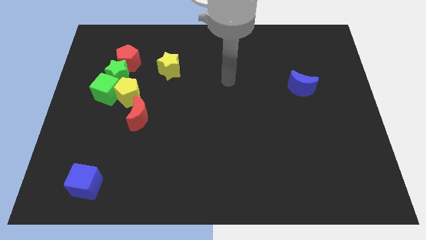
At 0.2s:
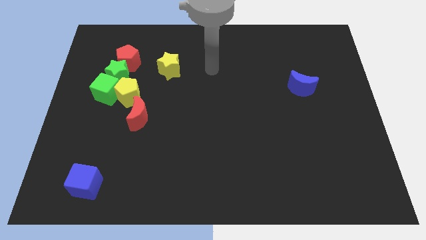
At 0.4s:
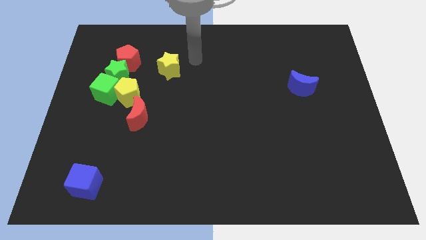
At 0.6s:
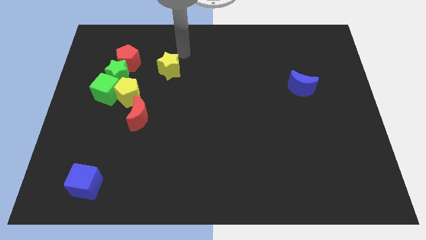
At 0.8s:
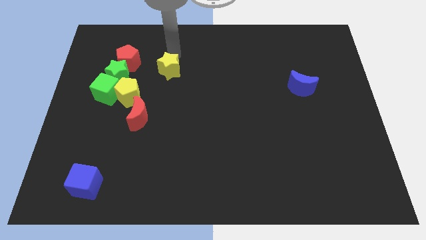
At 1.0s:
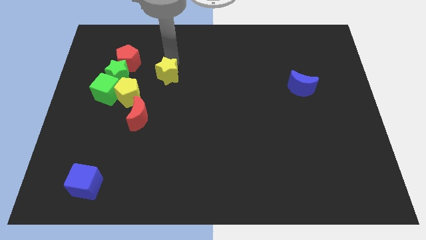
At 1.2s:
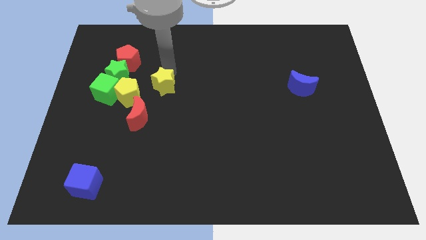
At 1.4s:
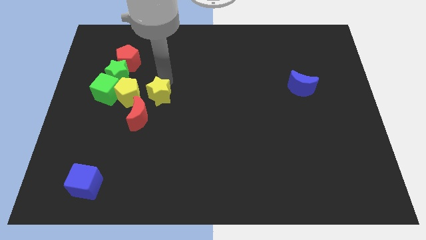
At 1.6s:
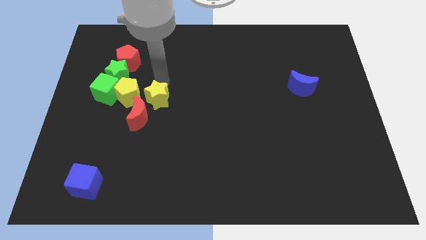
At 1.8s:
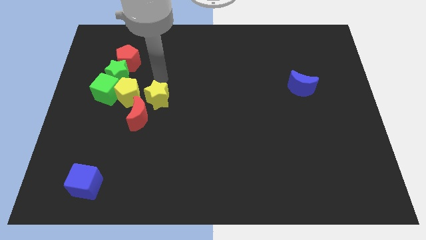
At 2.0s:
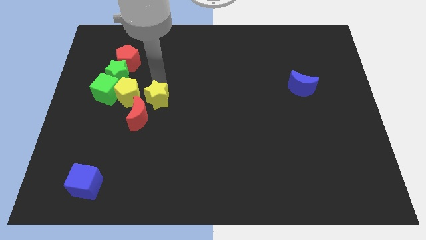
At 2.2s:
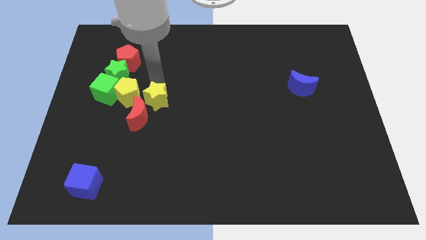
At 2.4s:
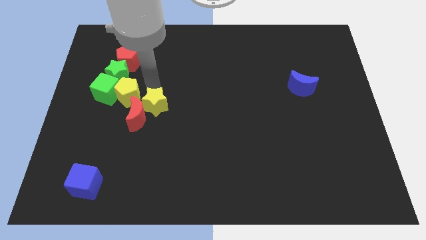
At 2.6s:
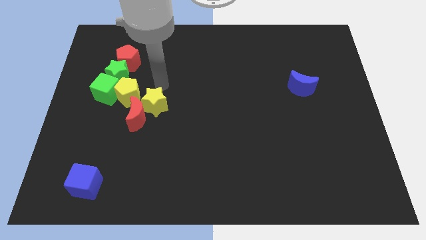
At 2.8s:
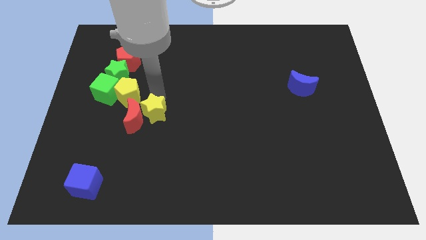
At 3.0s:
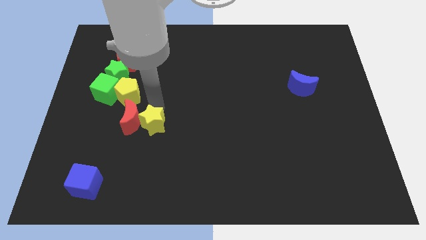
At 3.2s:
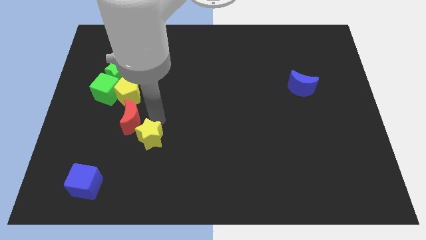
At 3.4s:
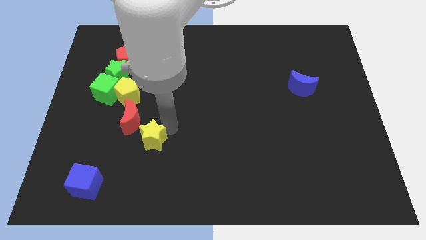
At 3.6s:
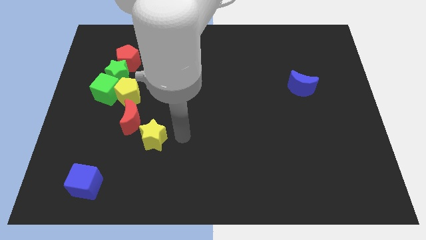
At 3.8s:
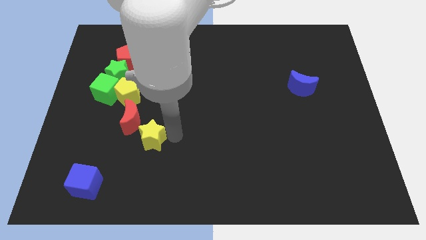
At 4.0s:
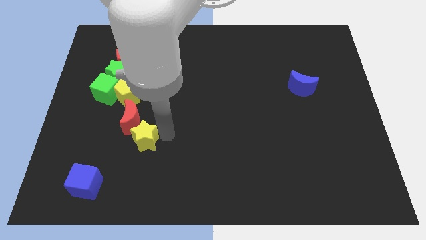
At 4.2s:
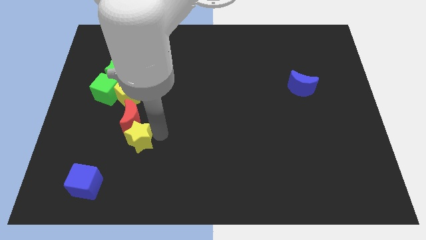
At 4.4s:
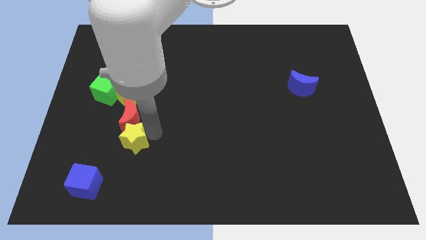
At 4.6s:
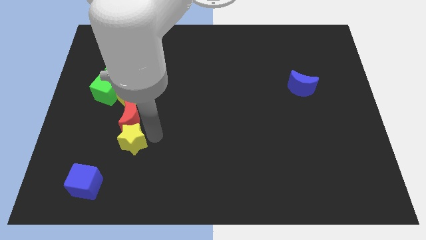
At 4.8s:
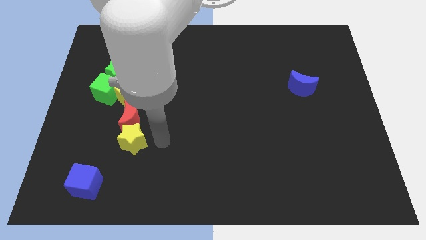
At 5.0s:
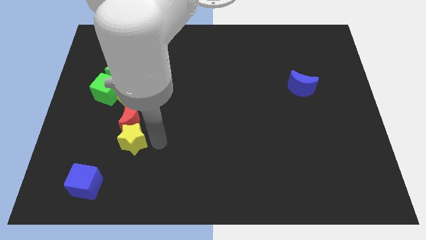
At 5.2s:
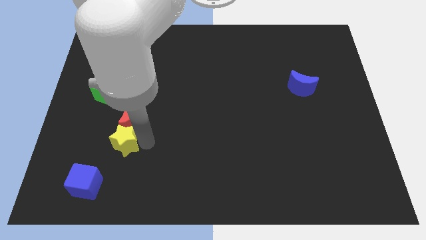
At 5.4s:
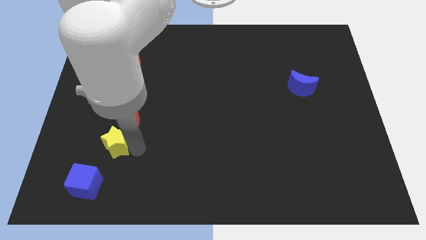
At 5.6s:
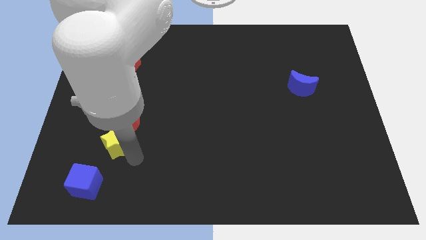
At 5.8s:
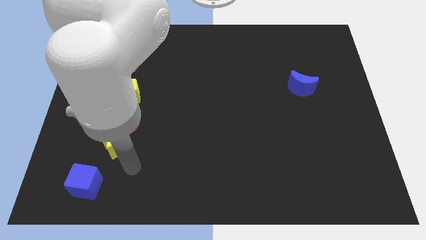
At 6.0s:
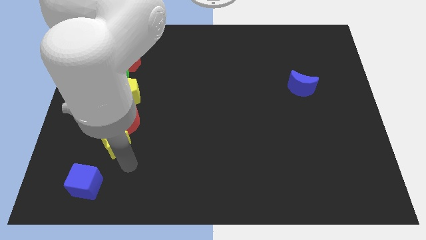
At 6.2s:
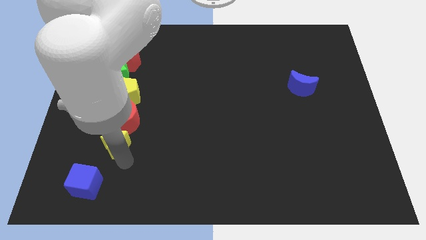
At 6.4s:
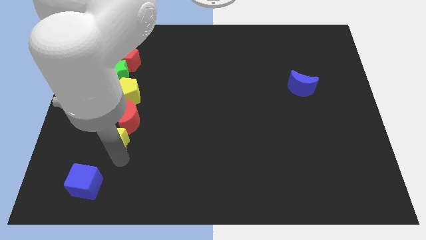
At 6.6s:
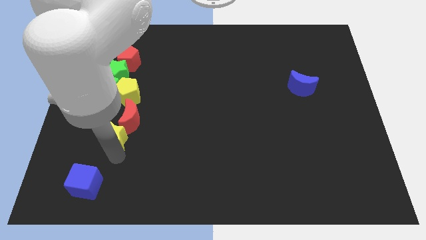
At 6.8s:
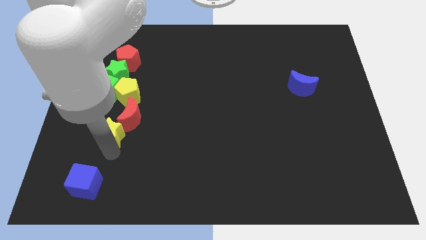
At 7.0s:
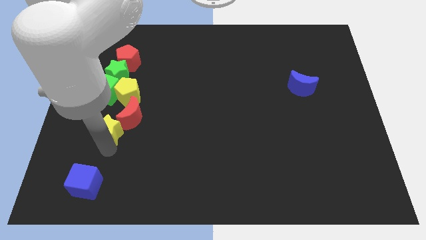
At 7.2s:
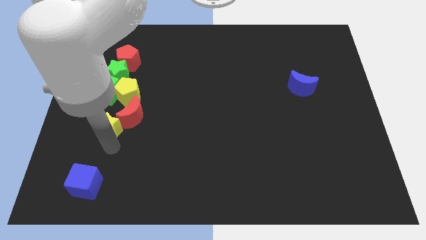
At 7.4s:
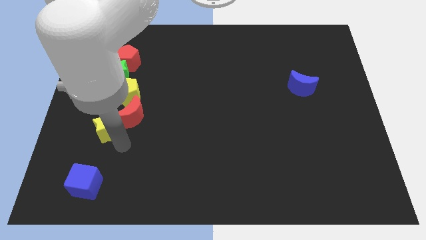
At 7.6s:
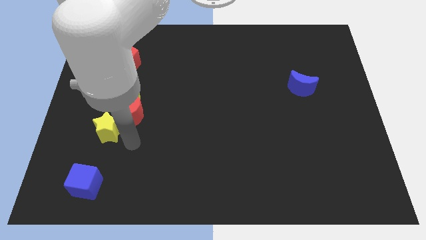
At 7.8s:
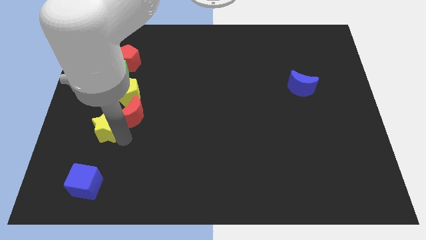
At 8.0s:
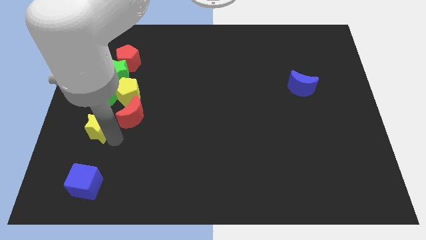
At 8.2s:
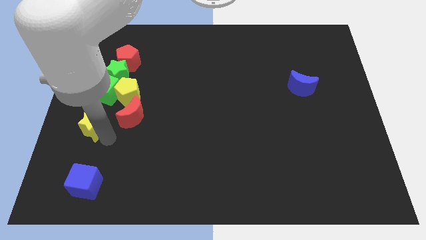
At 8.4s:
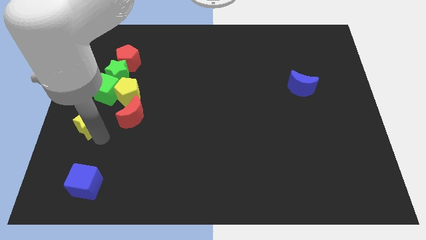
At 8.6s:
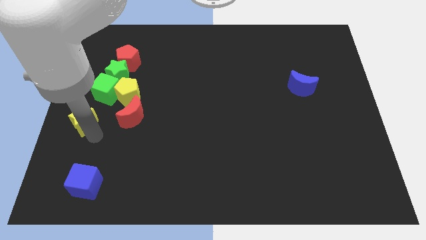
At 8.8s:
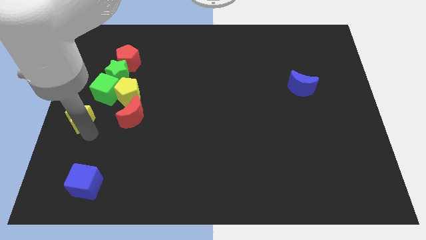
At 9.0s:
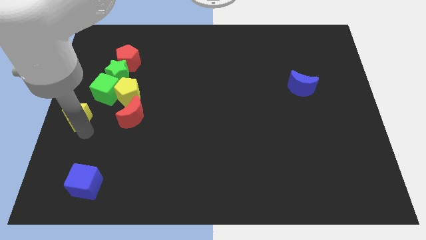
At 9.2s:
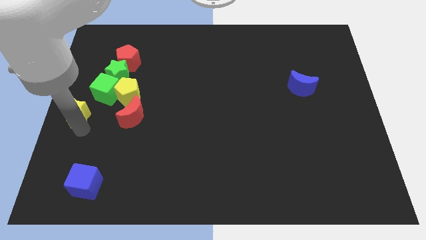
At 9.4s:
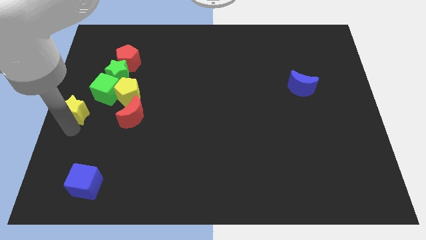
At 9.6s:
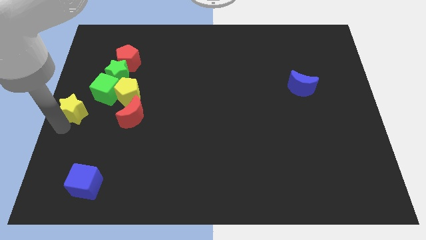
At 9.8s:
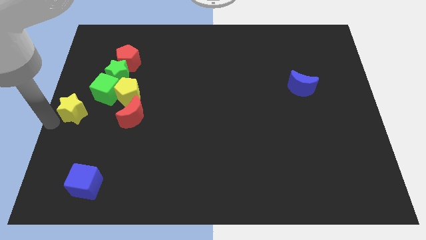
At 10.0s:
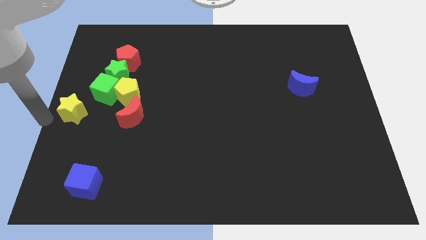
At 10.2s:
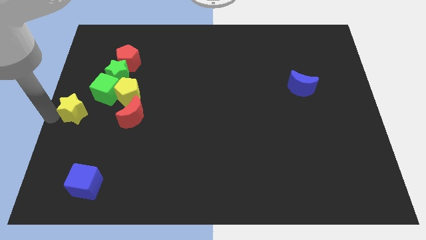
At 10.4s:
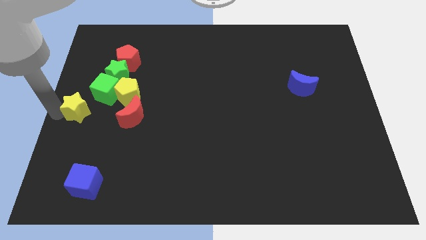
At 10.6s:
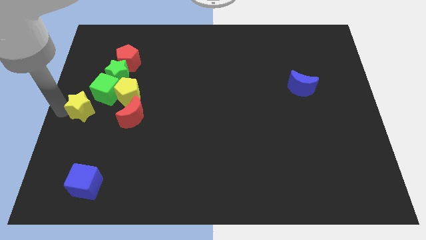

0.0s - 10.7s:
put the yellow star to the bottom left side of the green star

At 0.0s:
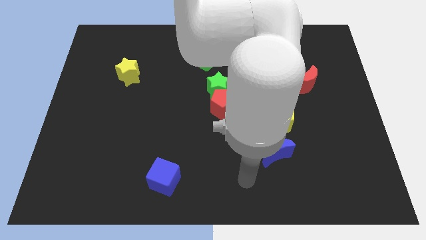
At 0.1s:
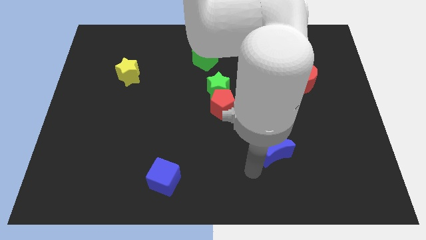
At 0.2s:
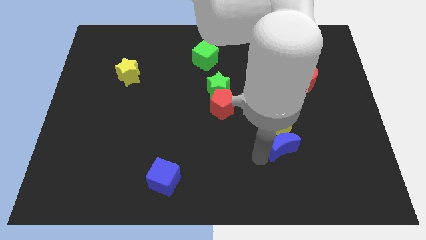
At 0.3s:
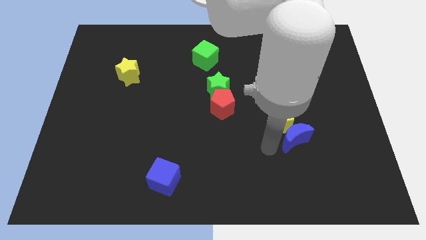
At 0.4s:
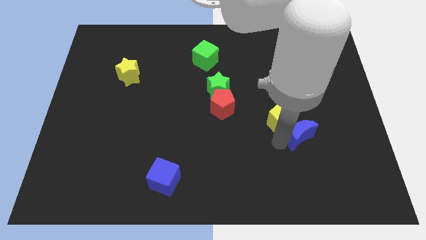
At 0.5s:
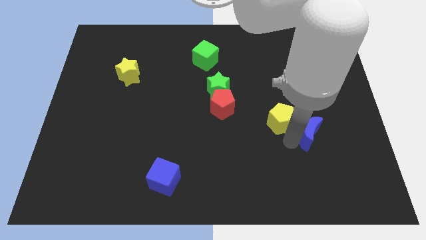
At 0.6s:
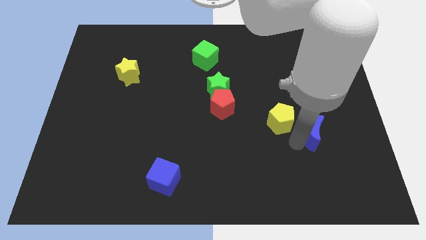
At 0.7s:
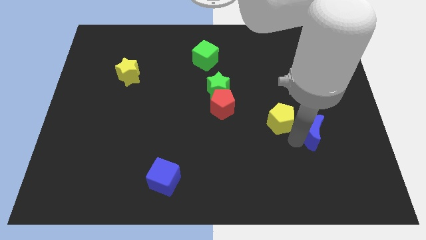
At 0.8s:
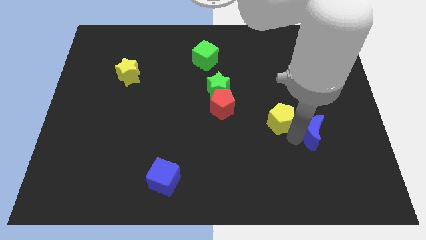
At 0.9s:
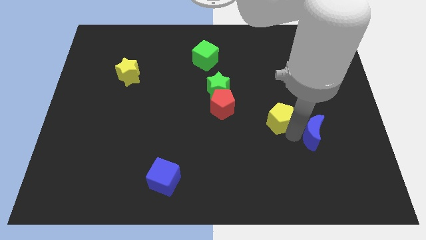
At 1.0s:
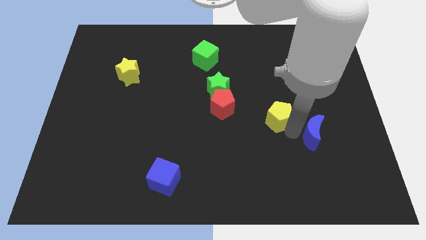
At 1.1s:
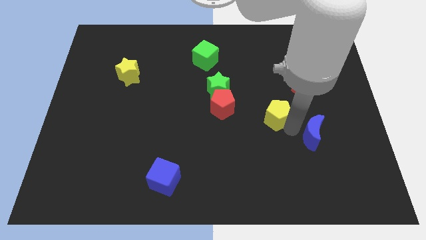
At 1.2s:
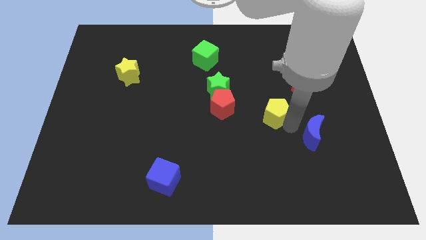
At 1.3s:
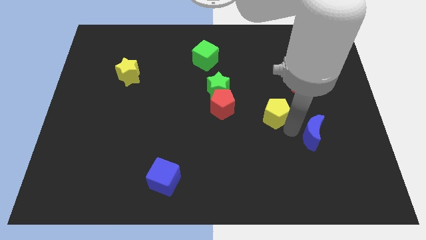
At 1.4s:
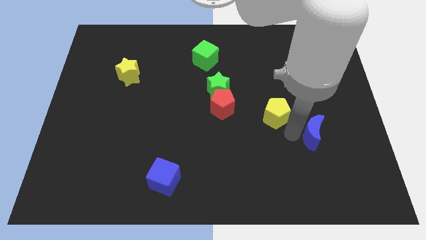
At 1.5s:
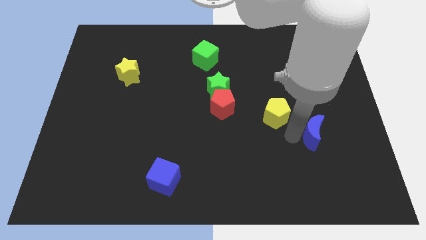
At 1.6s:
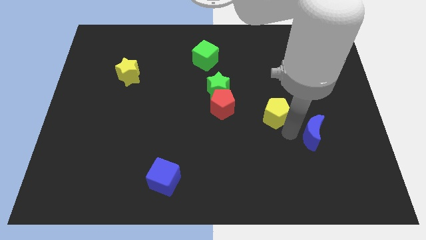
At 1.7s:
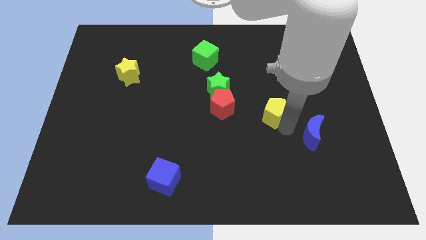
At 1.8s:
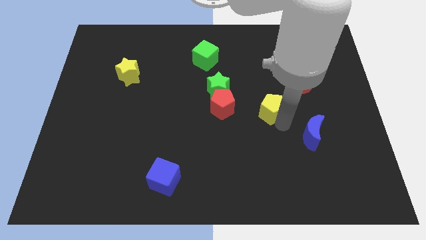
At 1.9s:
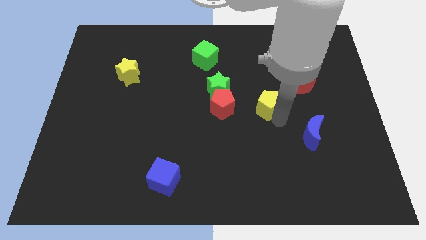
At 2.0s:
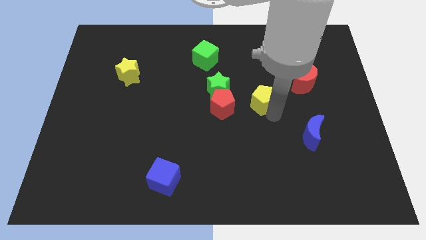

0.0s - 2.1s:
move the yellow pentagon just right of the green star
